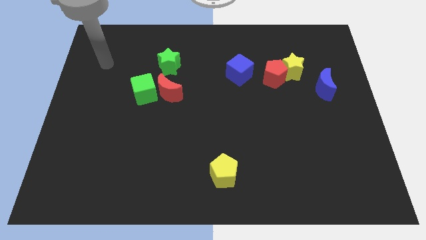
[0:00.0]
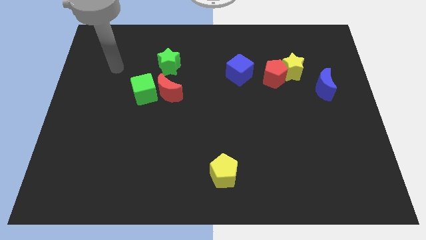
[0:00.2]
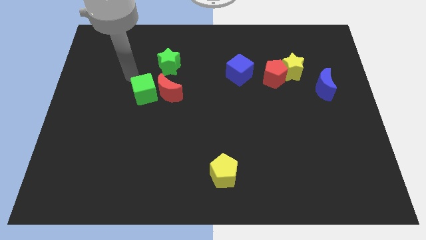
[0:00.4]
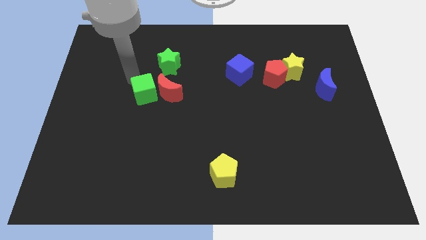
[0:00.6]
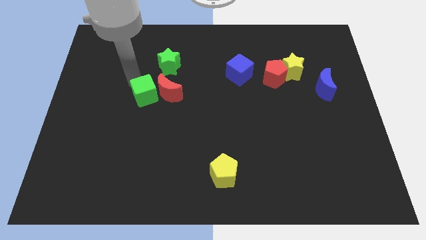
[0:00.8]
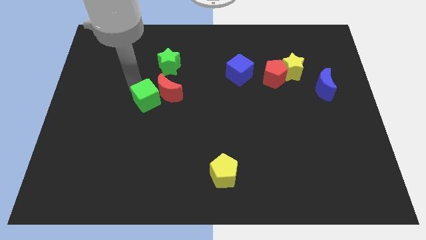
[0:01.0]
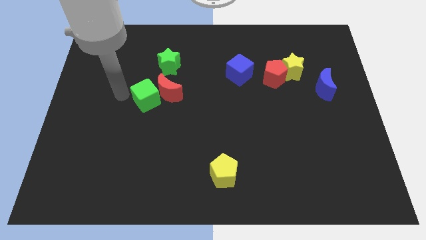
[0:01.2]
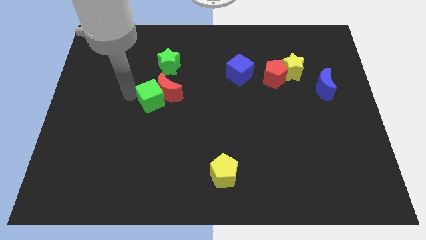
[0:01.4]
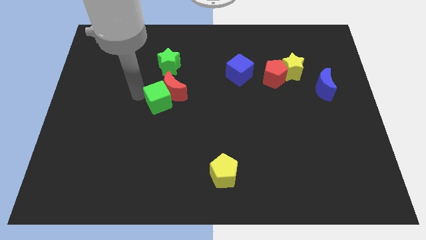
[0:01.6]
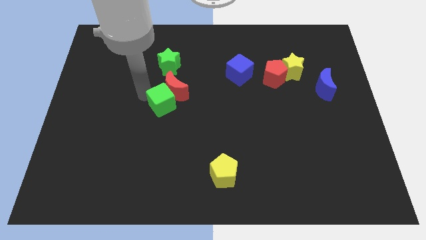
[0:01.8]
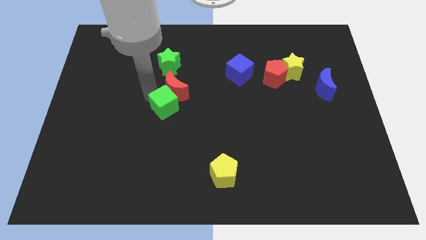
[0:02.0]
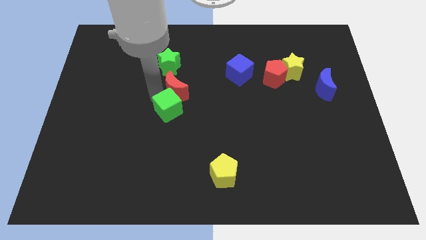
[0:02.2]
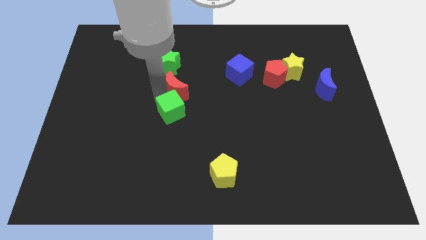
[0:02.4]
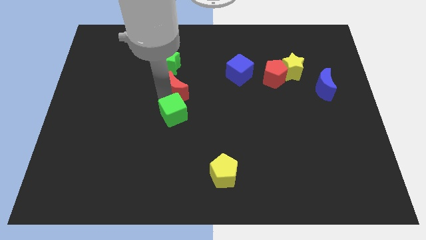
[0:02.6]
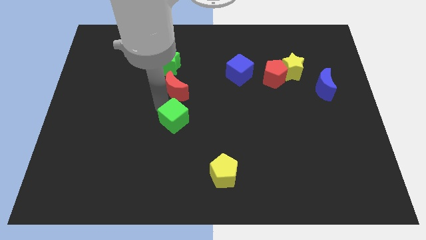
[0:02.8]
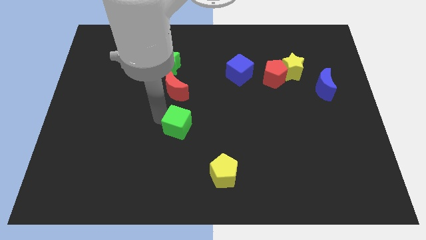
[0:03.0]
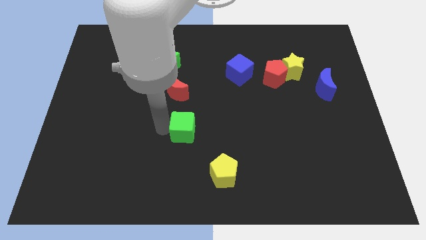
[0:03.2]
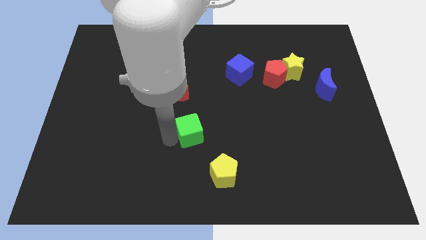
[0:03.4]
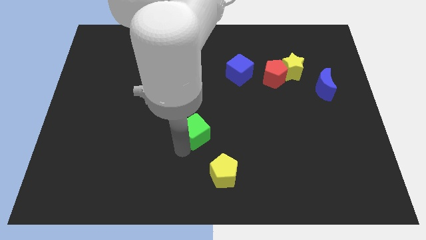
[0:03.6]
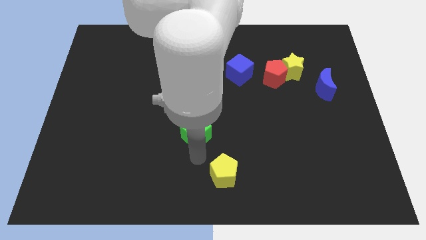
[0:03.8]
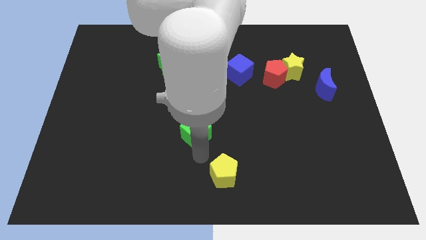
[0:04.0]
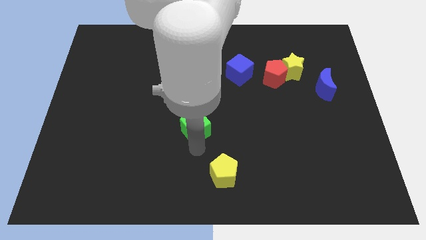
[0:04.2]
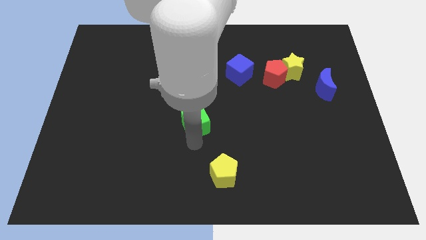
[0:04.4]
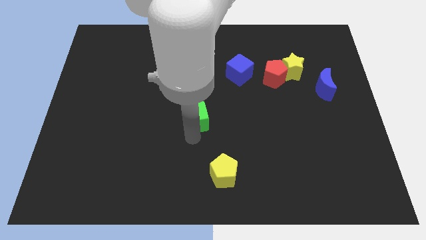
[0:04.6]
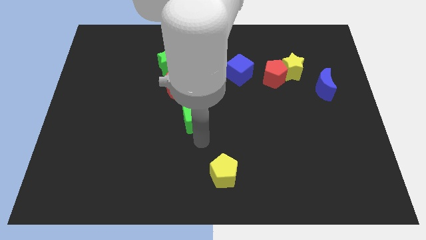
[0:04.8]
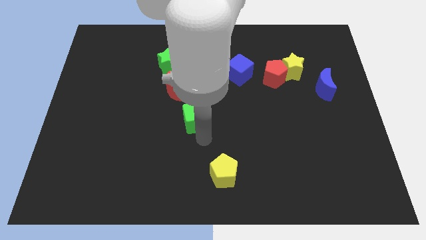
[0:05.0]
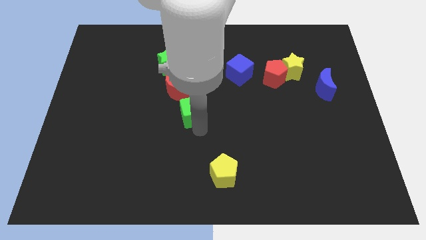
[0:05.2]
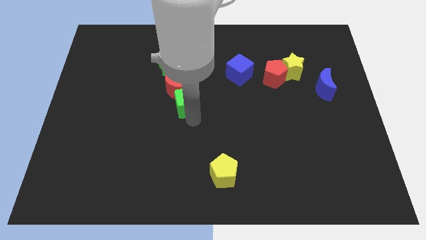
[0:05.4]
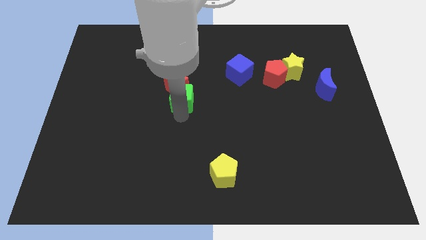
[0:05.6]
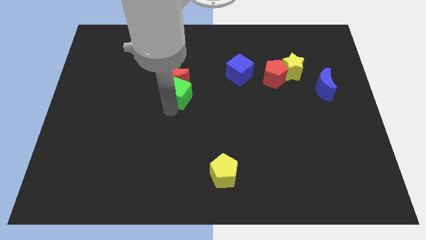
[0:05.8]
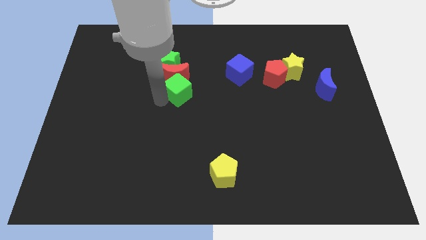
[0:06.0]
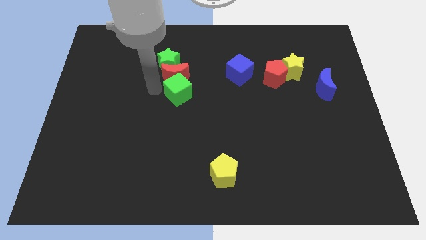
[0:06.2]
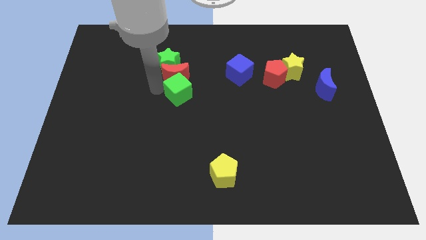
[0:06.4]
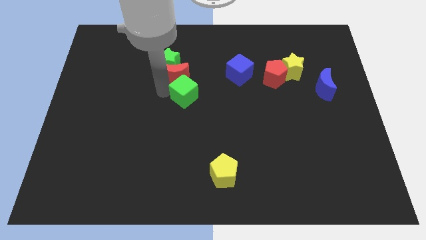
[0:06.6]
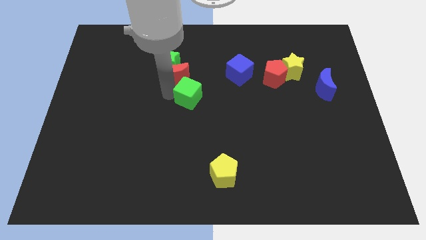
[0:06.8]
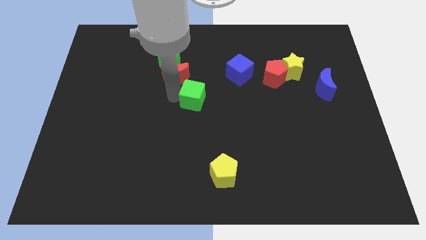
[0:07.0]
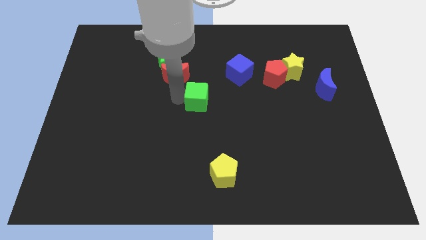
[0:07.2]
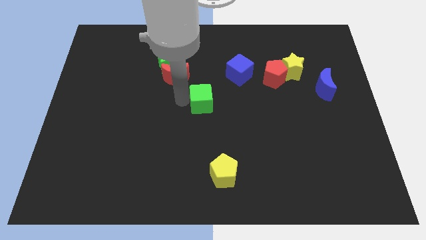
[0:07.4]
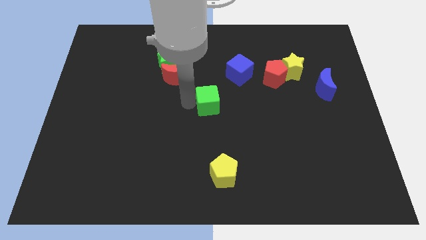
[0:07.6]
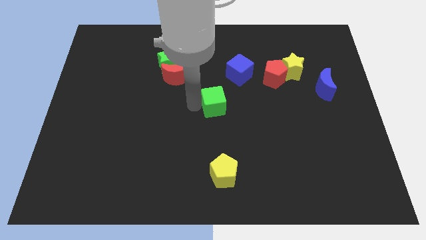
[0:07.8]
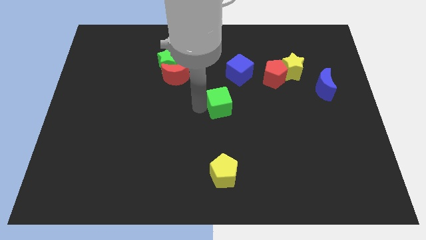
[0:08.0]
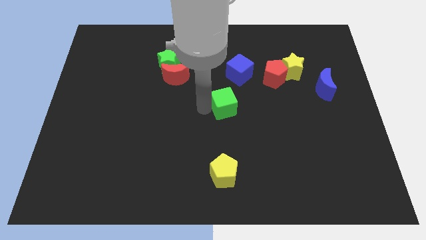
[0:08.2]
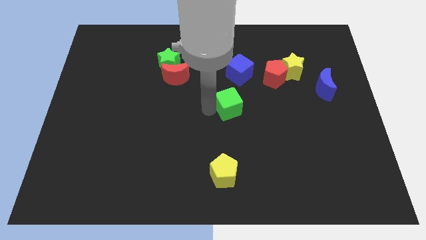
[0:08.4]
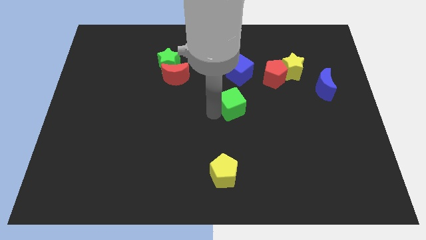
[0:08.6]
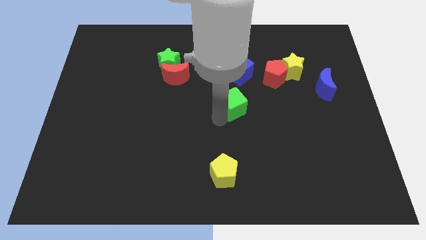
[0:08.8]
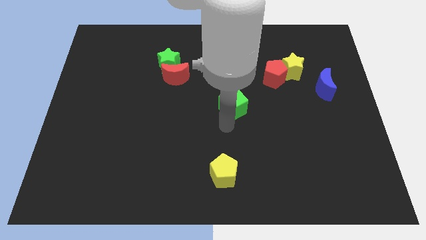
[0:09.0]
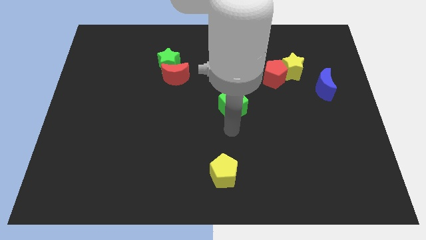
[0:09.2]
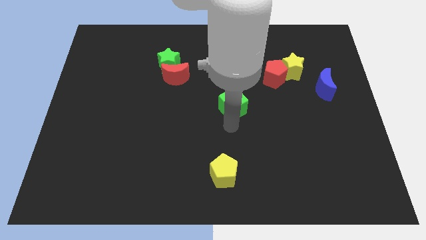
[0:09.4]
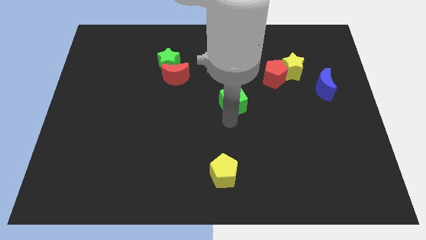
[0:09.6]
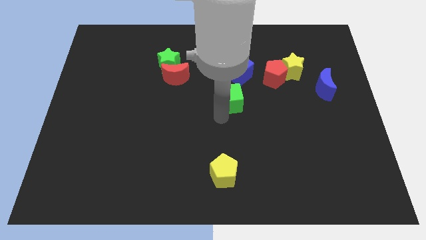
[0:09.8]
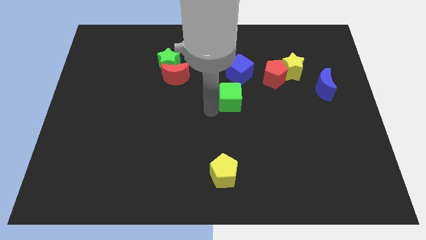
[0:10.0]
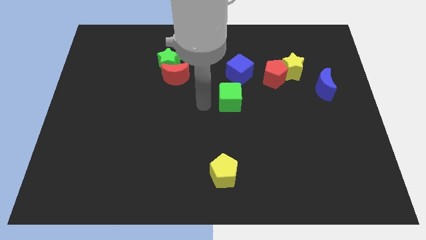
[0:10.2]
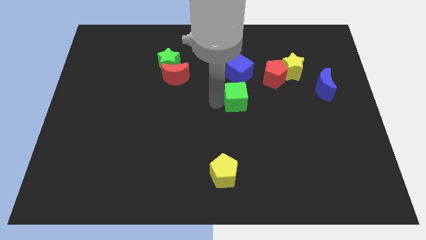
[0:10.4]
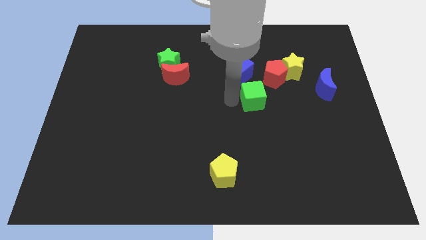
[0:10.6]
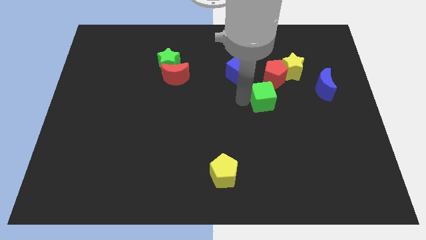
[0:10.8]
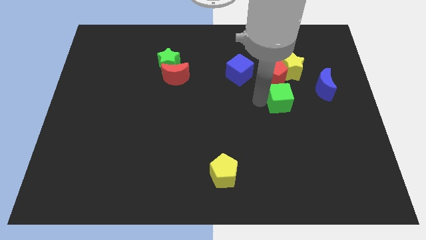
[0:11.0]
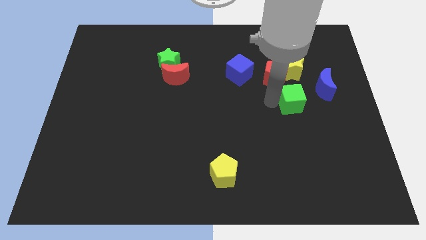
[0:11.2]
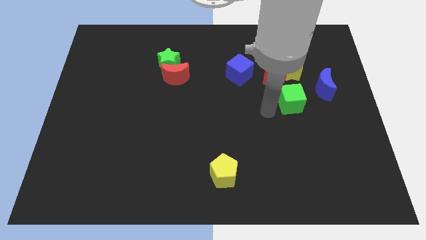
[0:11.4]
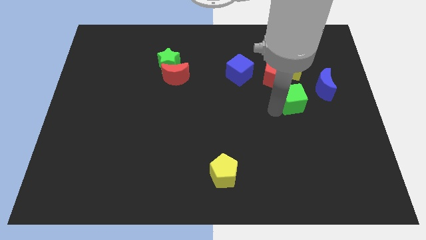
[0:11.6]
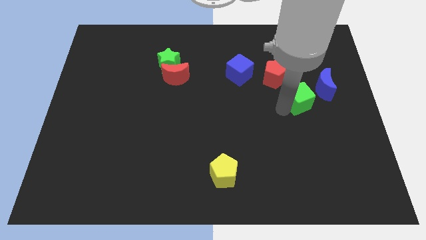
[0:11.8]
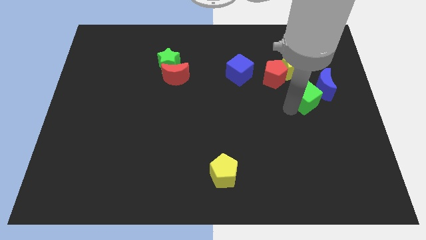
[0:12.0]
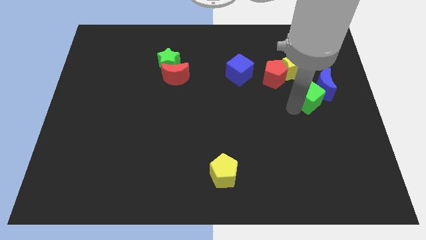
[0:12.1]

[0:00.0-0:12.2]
slide the green cube towards the blue moon

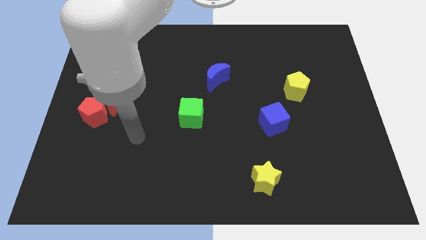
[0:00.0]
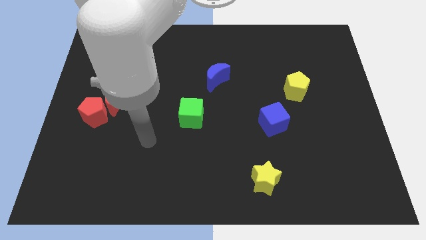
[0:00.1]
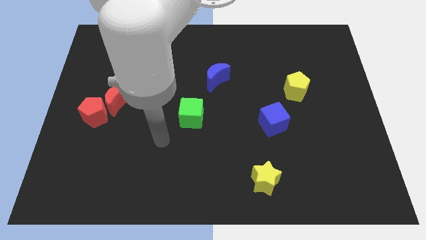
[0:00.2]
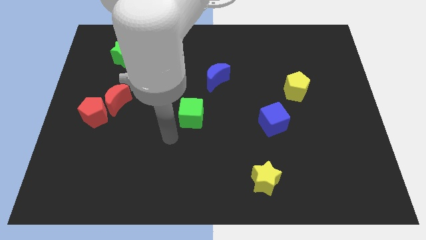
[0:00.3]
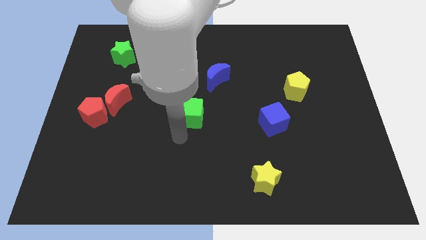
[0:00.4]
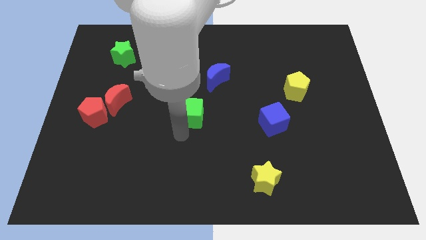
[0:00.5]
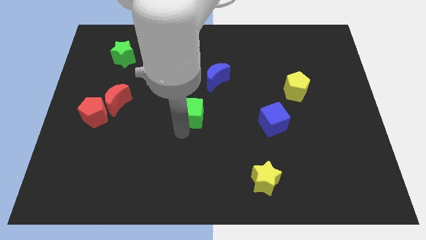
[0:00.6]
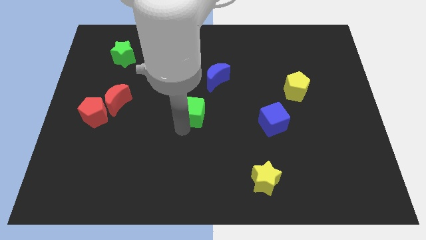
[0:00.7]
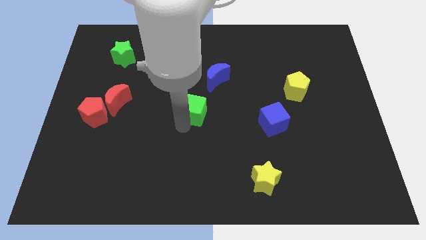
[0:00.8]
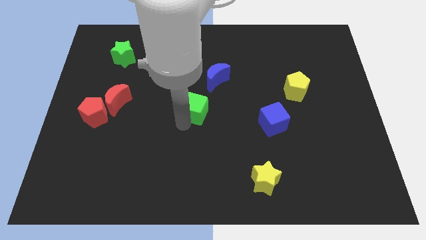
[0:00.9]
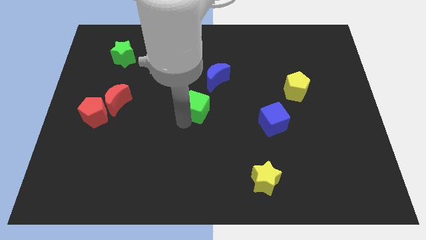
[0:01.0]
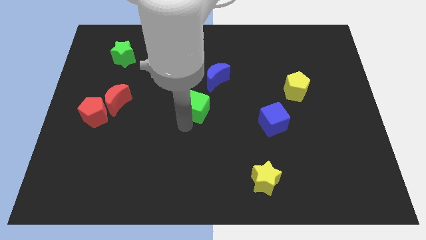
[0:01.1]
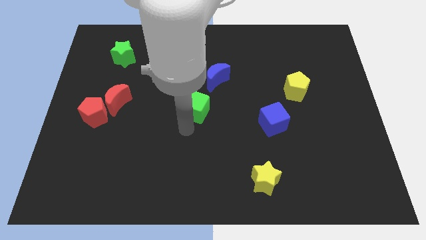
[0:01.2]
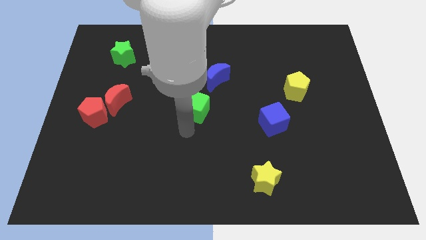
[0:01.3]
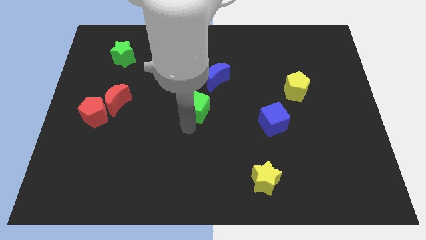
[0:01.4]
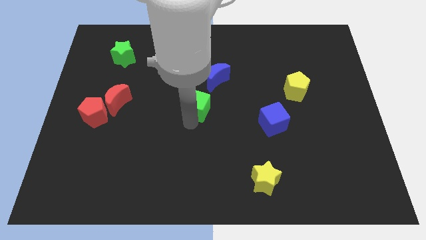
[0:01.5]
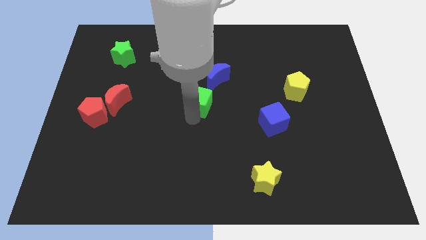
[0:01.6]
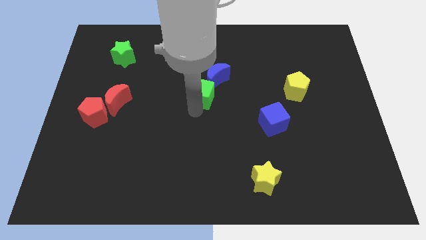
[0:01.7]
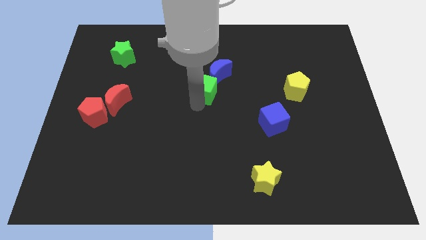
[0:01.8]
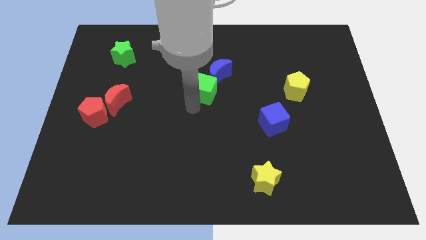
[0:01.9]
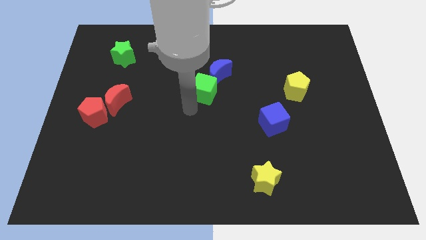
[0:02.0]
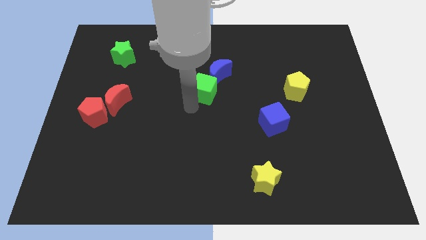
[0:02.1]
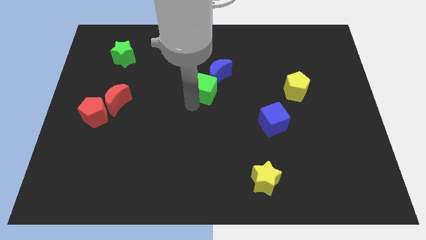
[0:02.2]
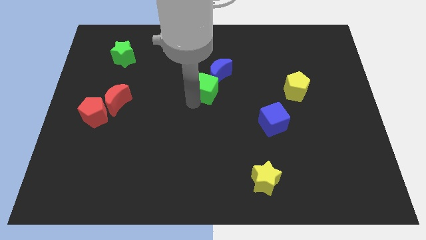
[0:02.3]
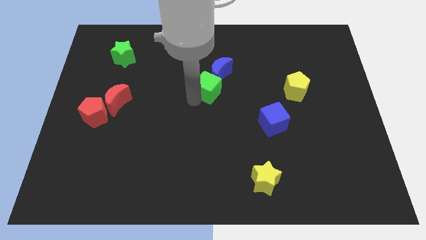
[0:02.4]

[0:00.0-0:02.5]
move the green cube towards the blue moon
